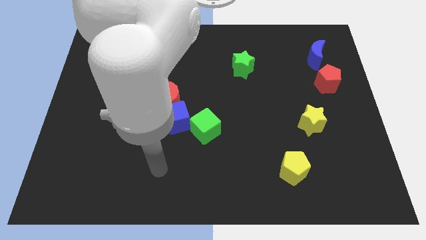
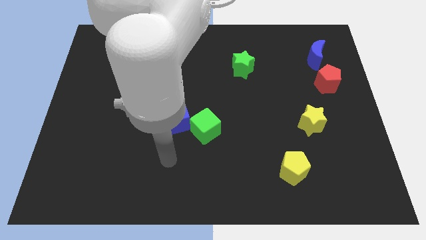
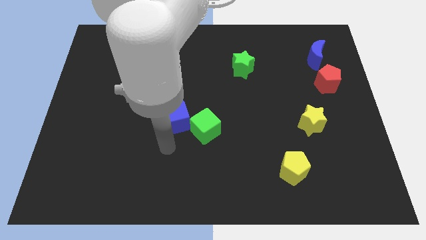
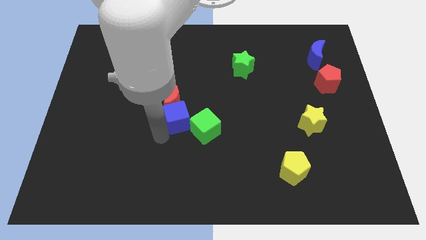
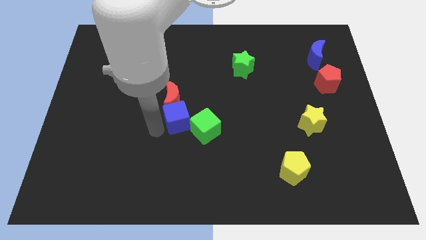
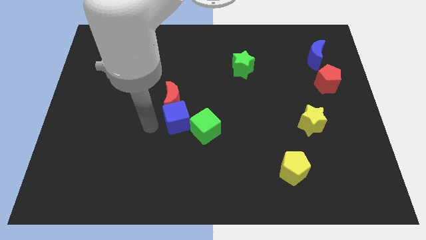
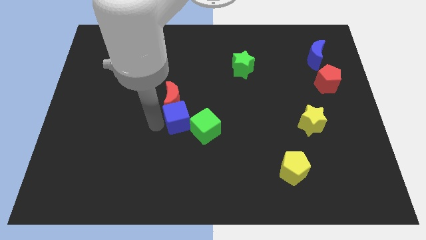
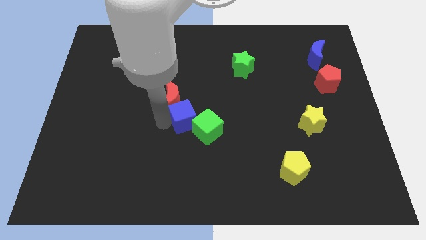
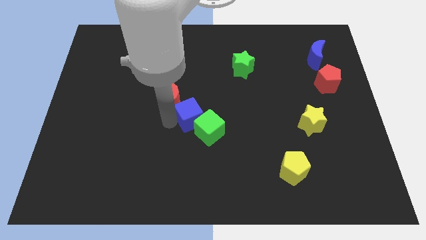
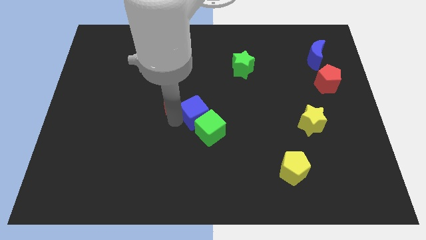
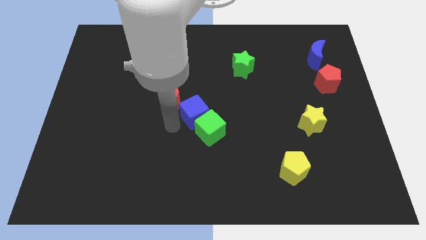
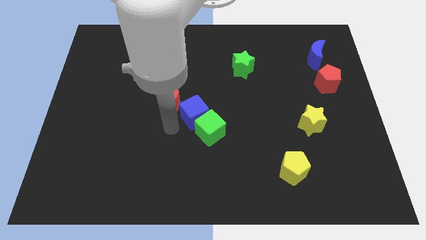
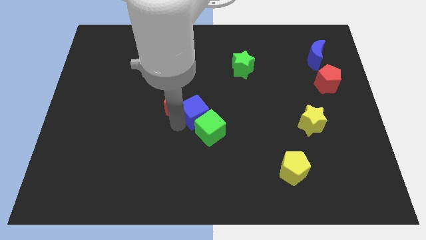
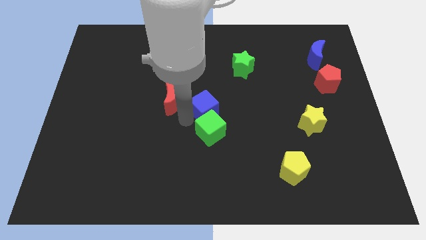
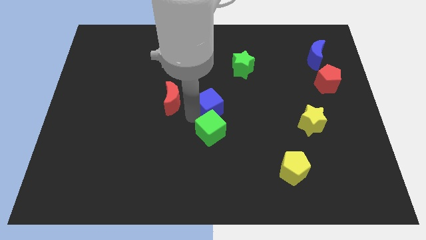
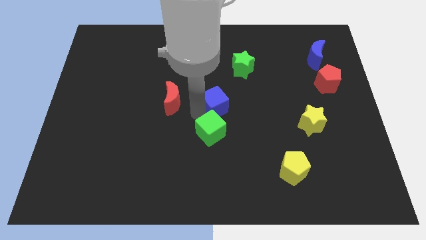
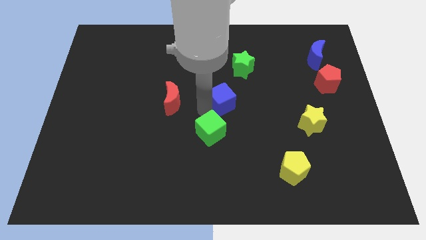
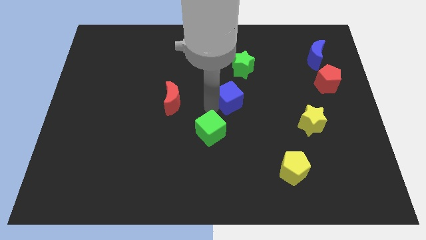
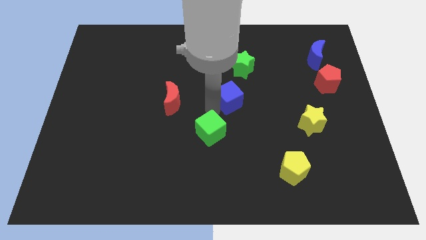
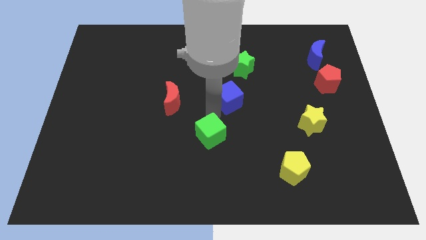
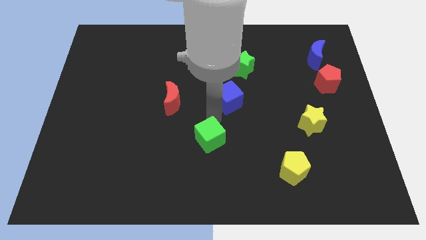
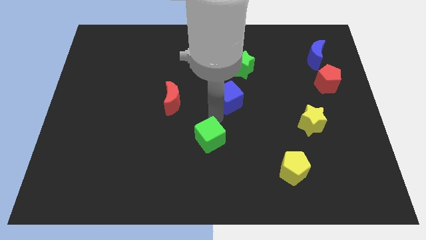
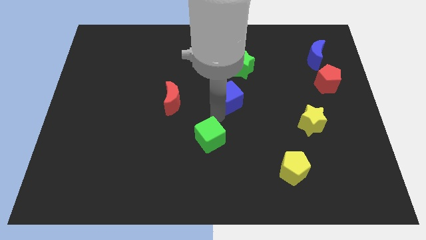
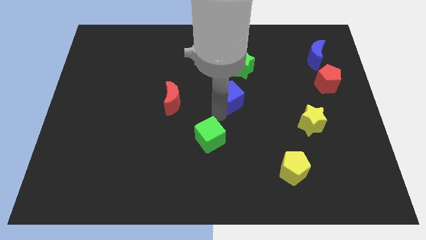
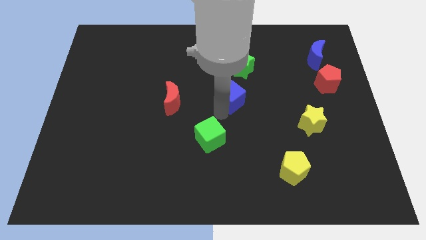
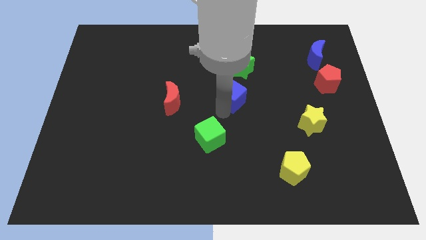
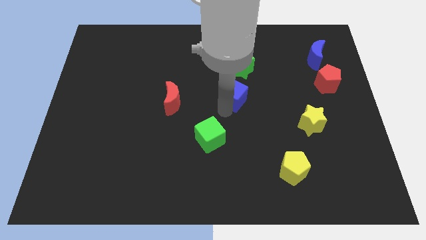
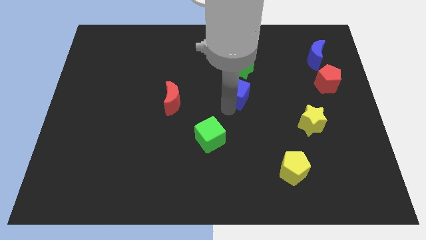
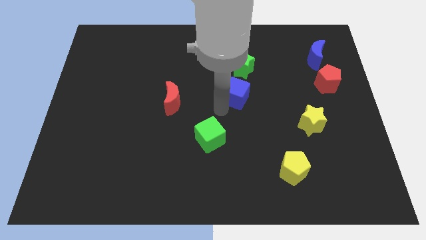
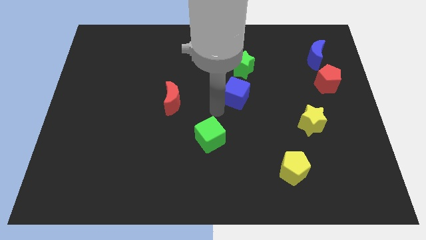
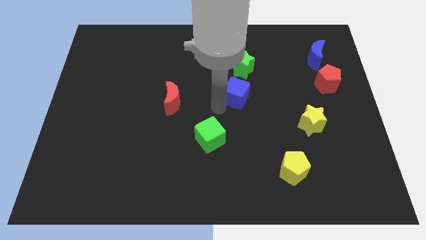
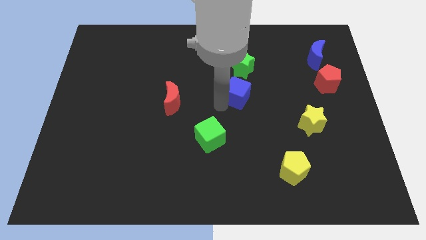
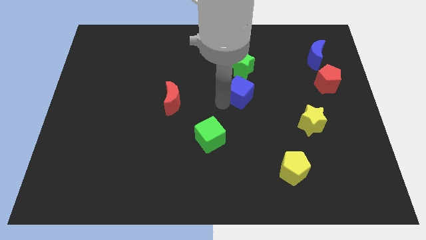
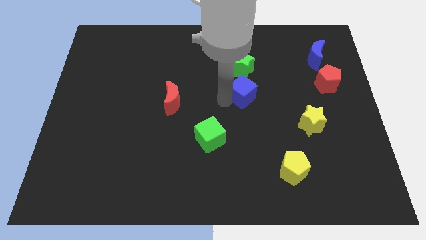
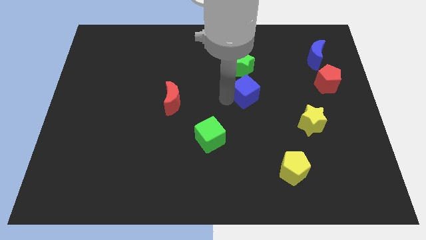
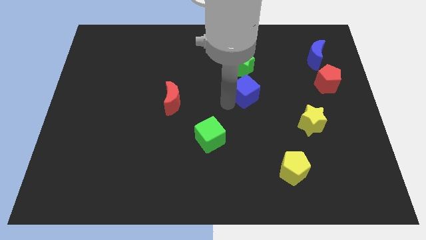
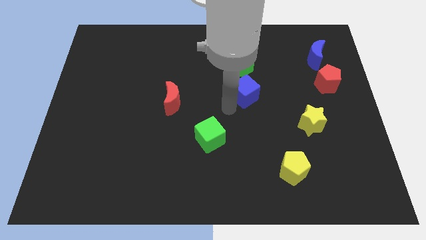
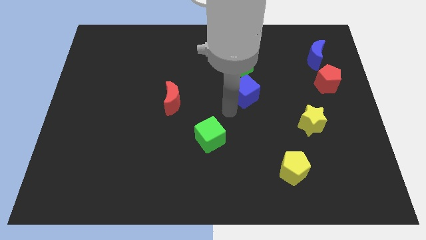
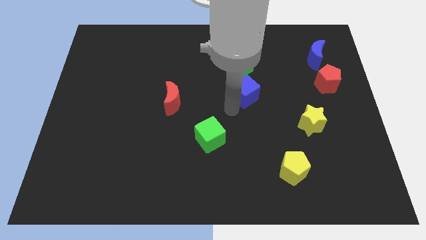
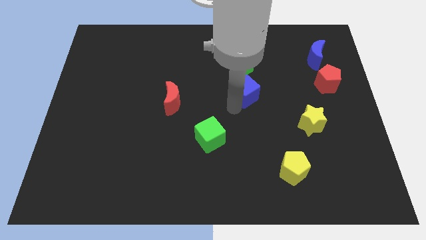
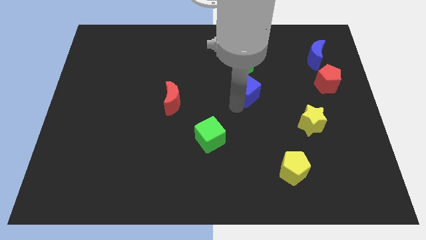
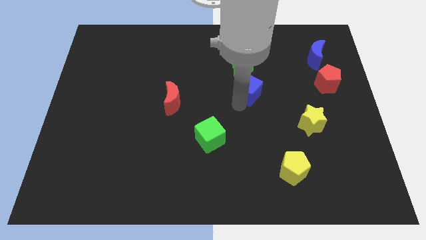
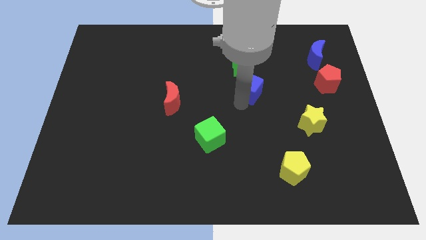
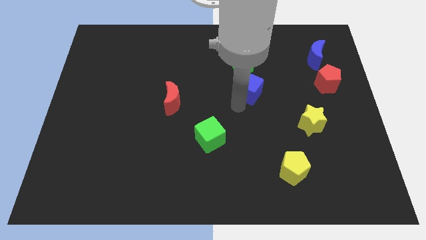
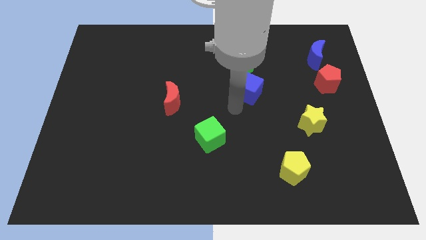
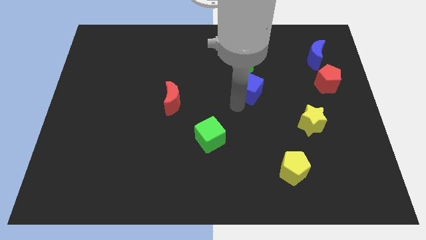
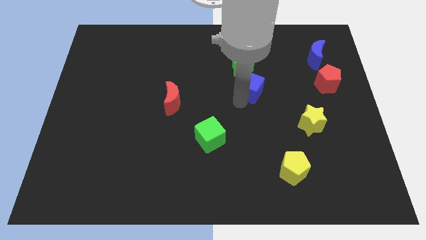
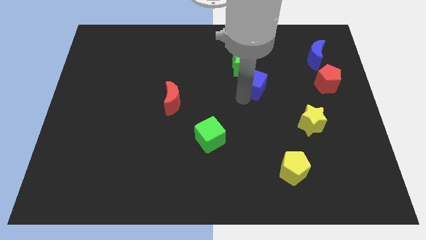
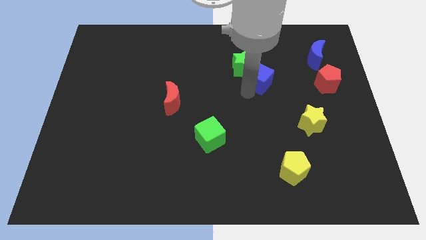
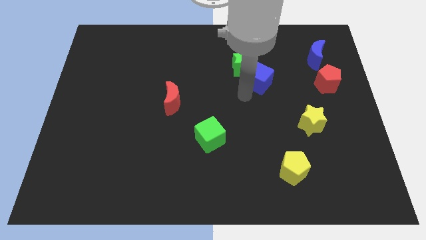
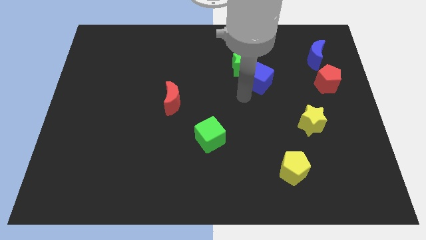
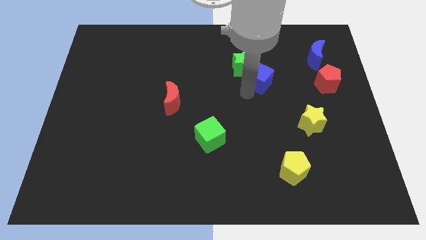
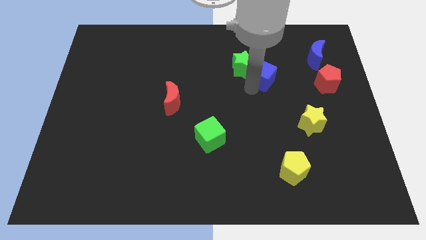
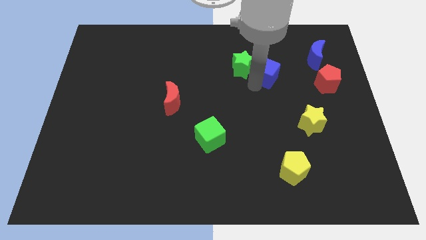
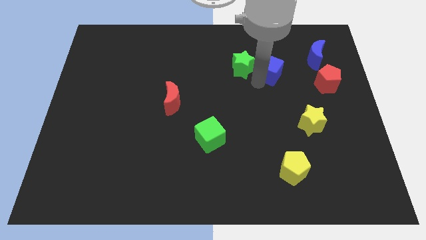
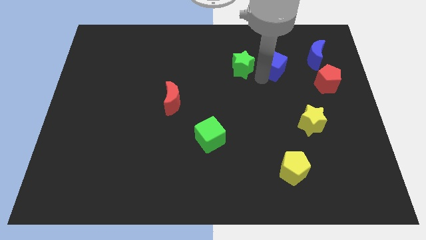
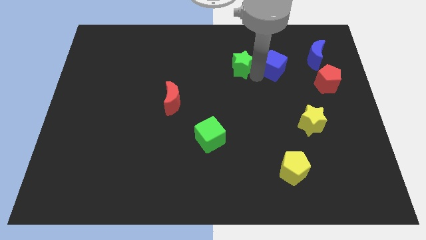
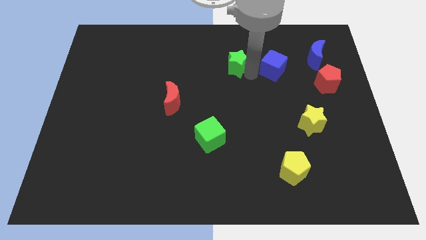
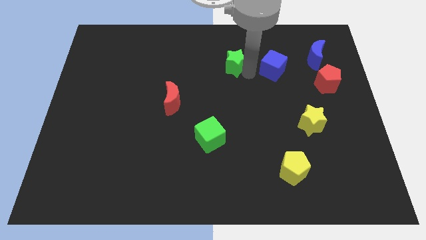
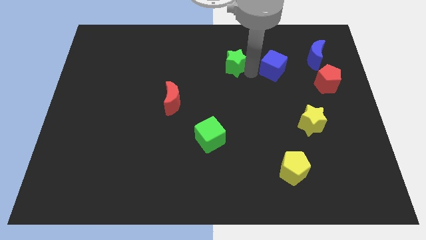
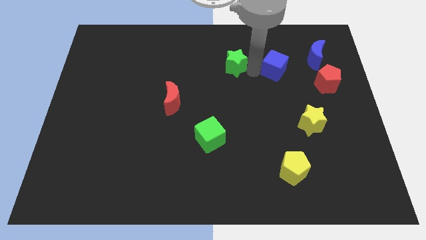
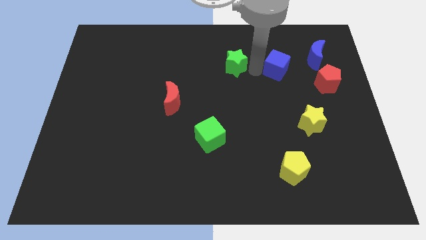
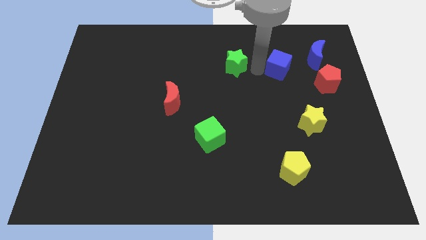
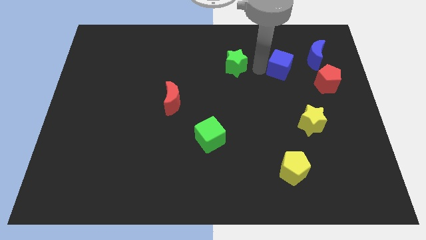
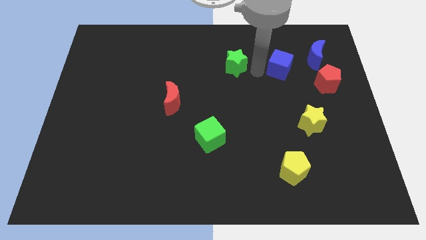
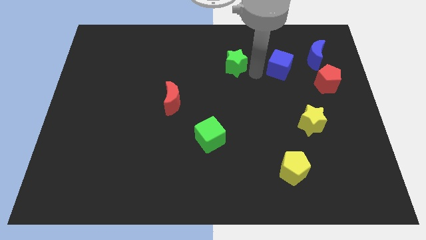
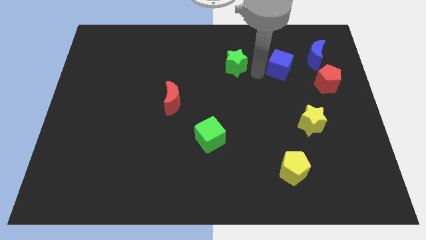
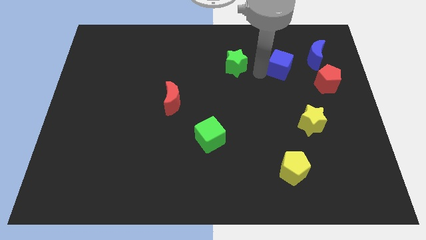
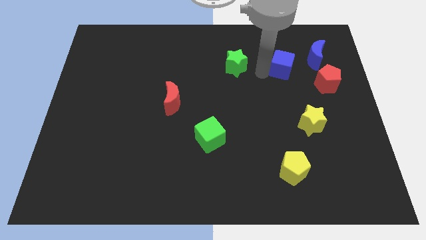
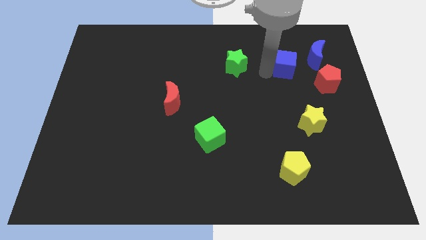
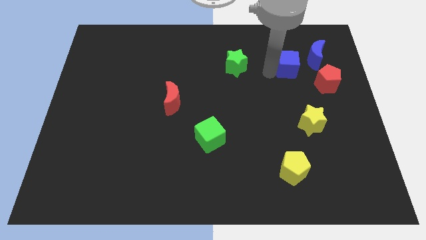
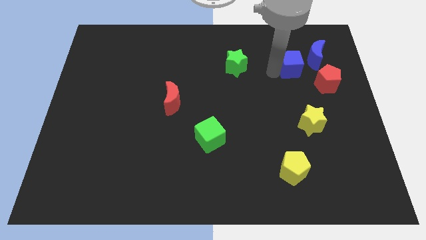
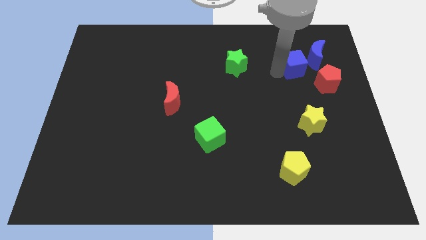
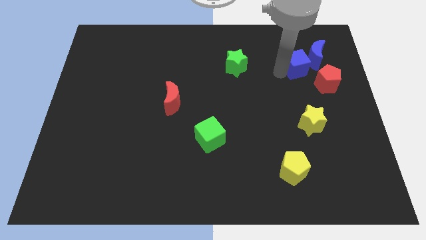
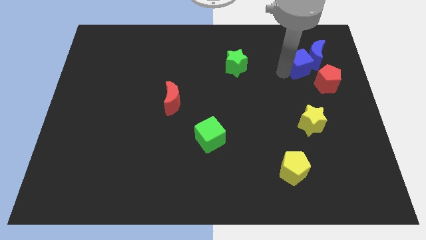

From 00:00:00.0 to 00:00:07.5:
put the blue cube towards the blue moon
